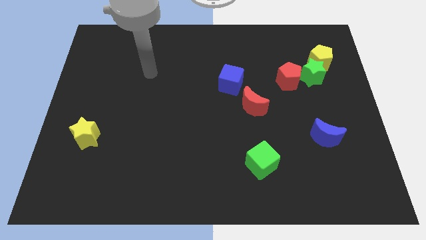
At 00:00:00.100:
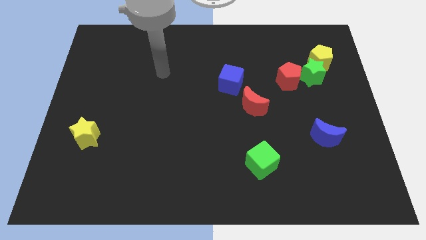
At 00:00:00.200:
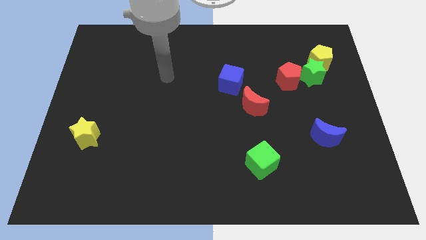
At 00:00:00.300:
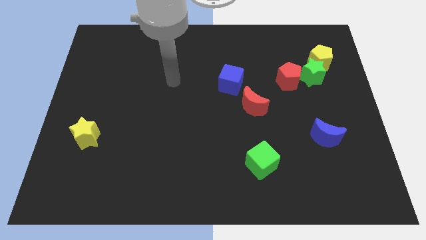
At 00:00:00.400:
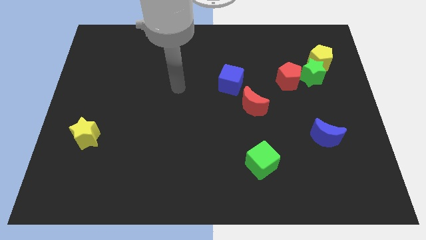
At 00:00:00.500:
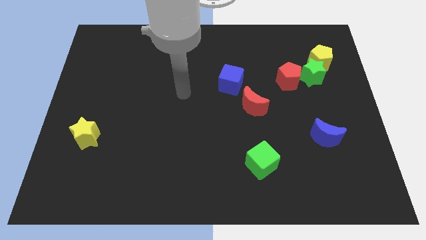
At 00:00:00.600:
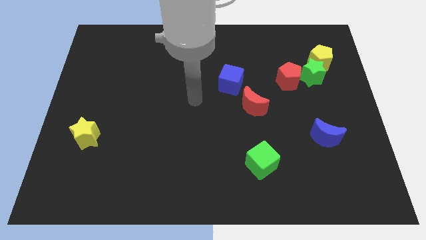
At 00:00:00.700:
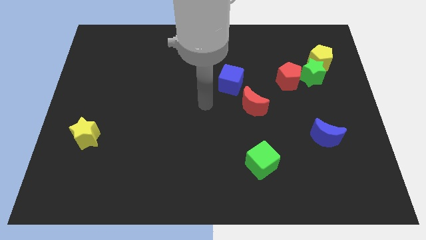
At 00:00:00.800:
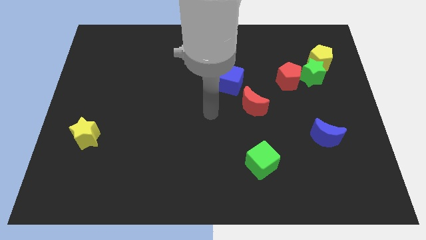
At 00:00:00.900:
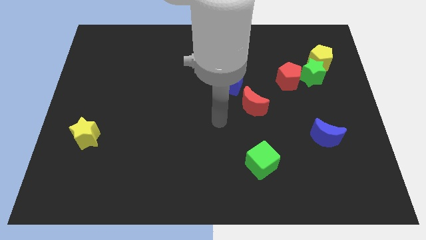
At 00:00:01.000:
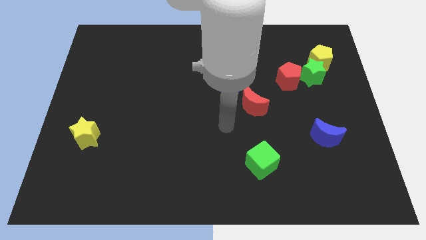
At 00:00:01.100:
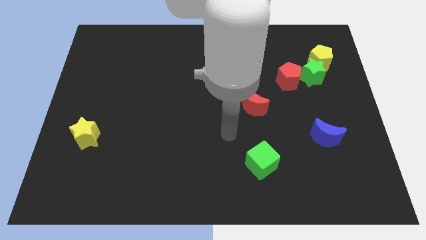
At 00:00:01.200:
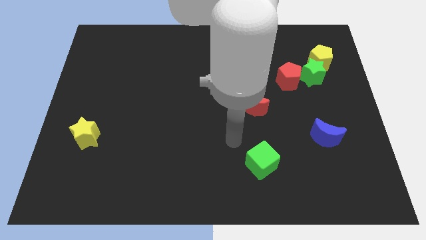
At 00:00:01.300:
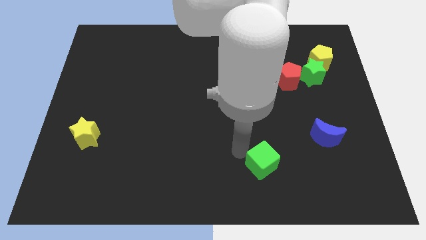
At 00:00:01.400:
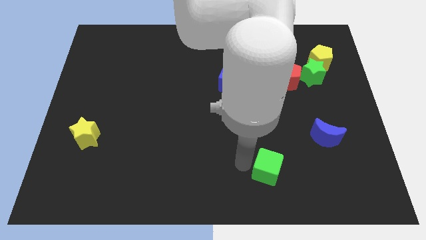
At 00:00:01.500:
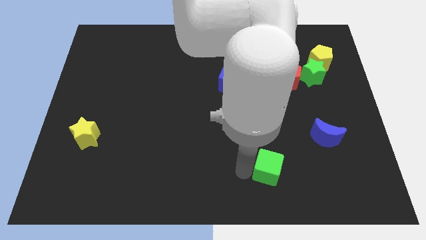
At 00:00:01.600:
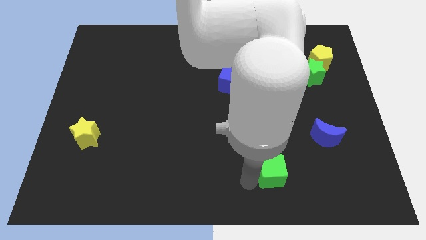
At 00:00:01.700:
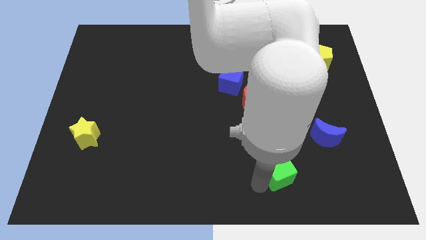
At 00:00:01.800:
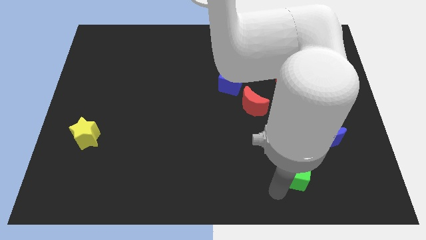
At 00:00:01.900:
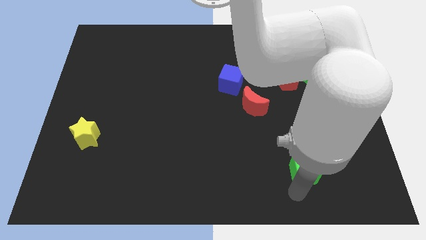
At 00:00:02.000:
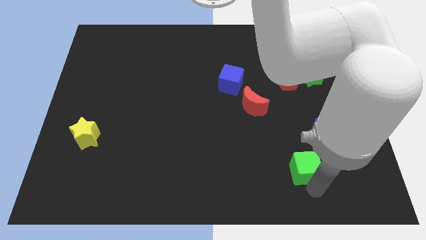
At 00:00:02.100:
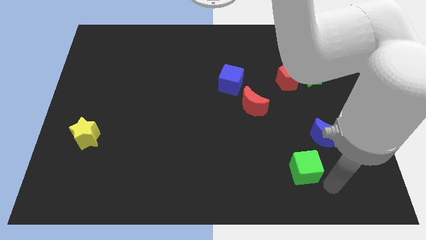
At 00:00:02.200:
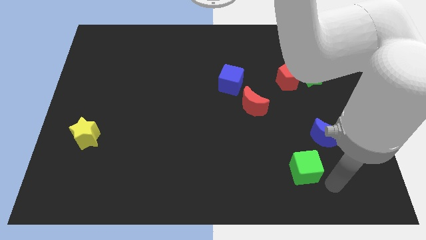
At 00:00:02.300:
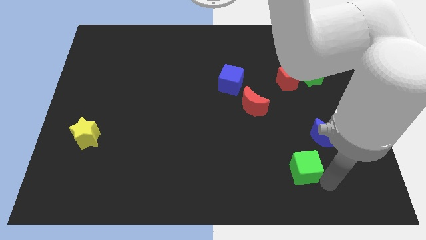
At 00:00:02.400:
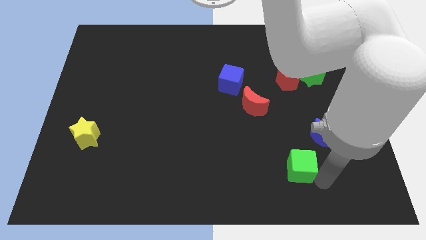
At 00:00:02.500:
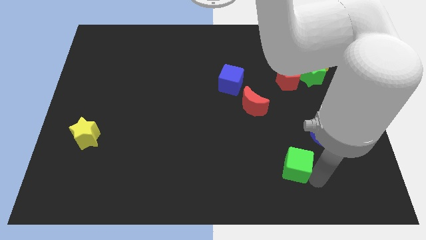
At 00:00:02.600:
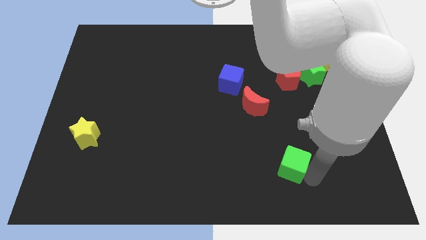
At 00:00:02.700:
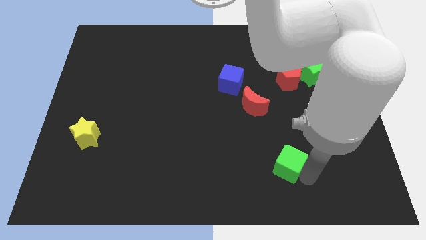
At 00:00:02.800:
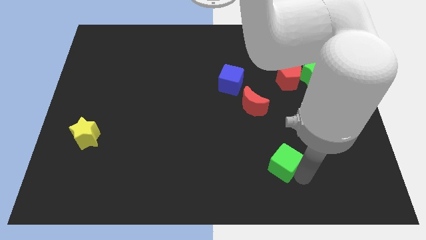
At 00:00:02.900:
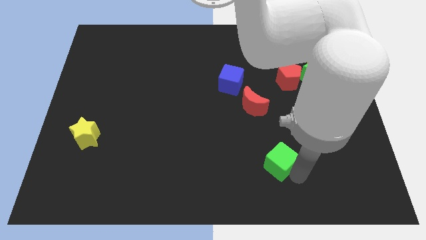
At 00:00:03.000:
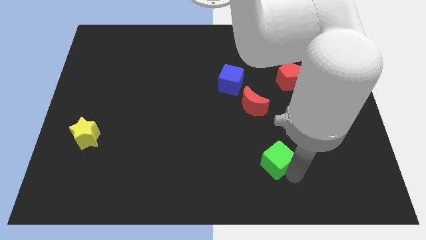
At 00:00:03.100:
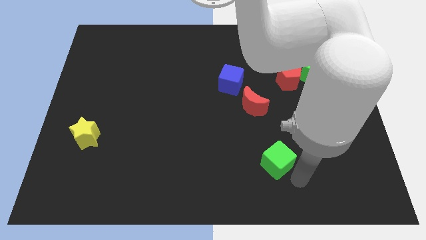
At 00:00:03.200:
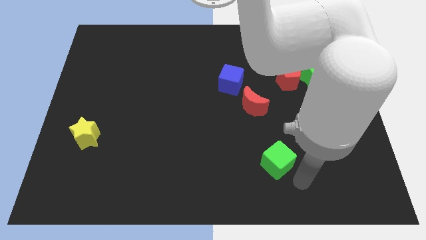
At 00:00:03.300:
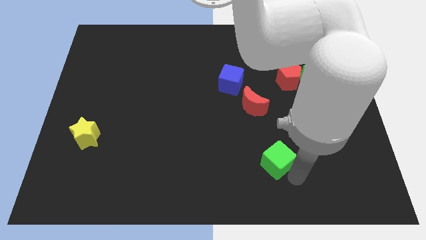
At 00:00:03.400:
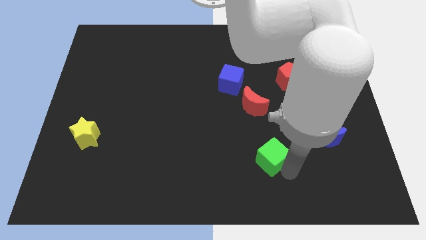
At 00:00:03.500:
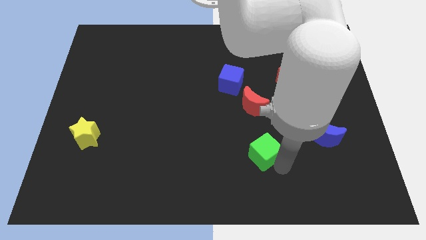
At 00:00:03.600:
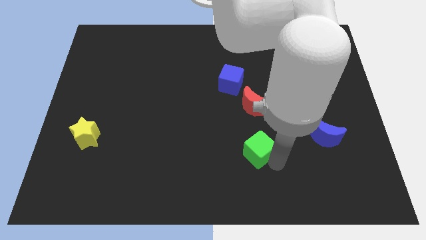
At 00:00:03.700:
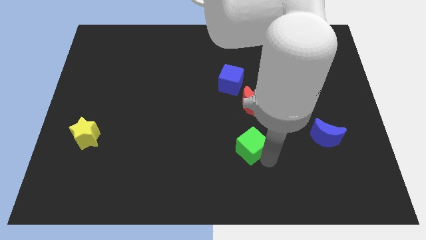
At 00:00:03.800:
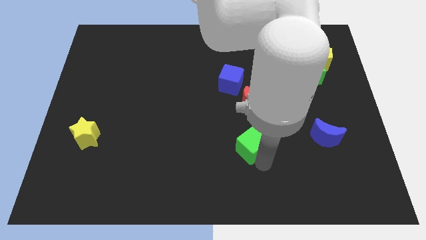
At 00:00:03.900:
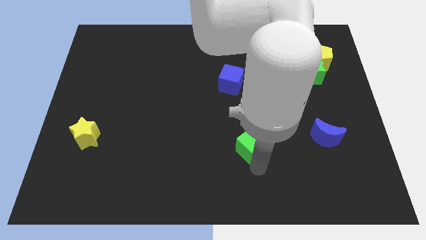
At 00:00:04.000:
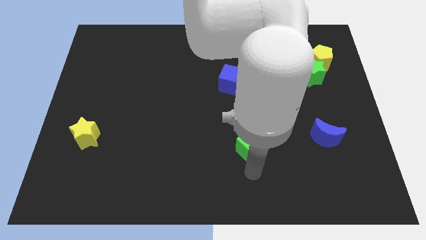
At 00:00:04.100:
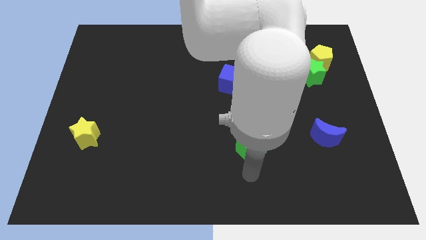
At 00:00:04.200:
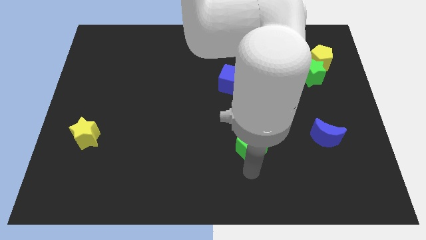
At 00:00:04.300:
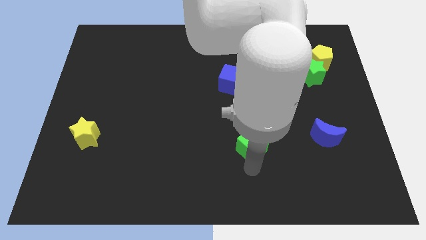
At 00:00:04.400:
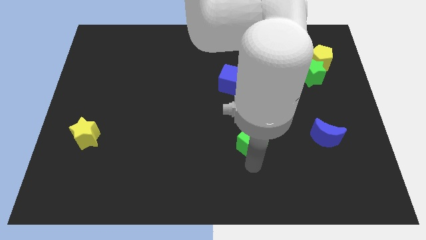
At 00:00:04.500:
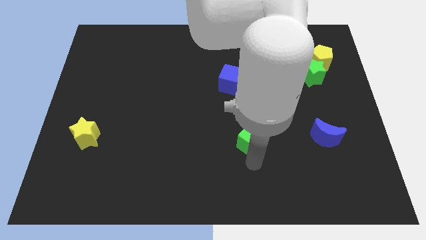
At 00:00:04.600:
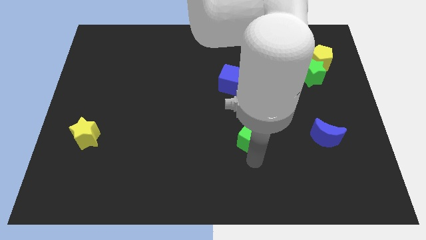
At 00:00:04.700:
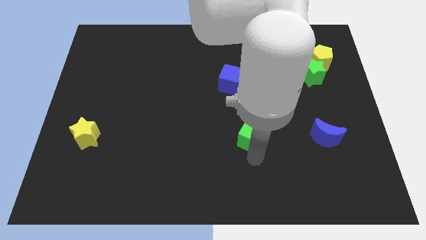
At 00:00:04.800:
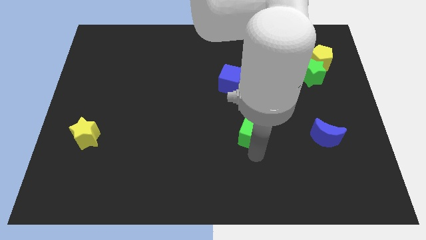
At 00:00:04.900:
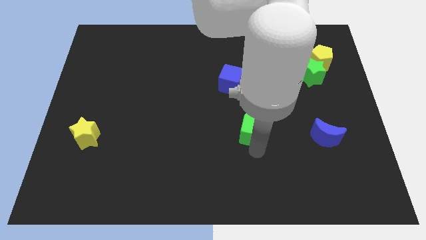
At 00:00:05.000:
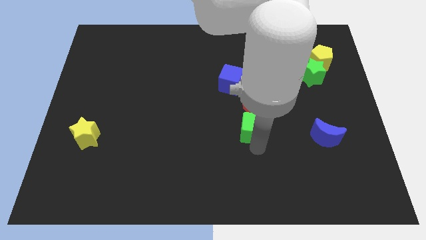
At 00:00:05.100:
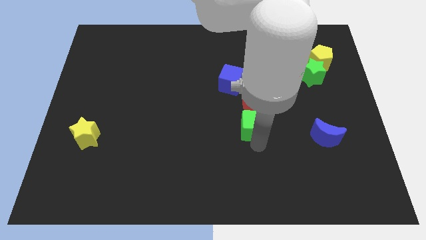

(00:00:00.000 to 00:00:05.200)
put the green cube next to the red moon

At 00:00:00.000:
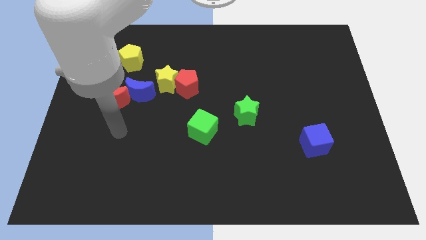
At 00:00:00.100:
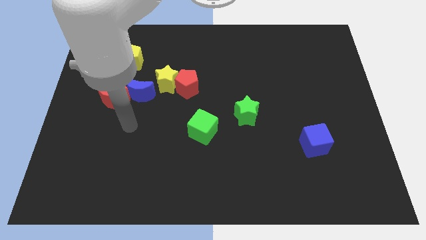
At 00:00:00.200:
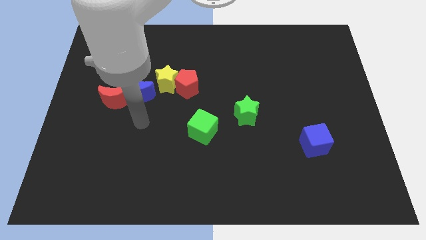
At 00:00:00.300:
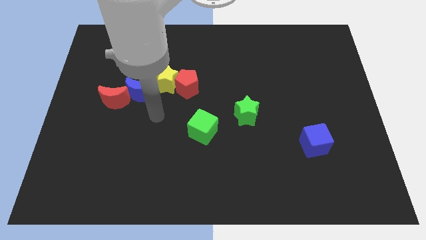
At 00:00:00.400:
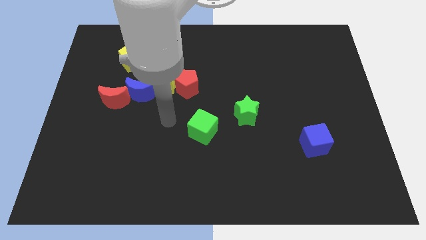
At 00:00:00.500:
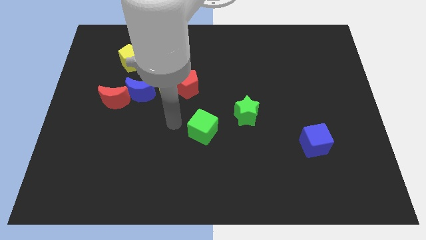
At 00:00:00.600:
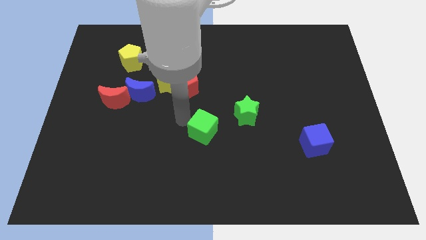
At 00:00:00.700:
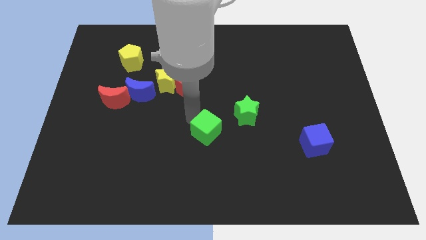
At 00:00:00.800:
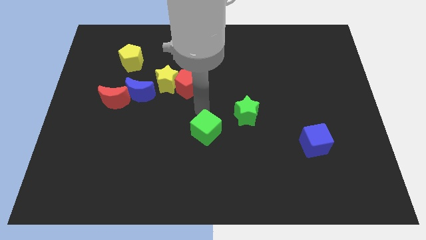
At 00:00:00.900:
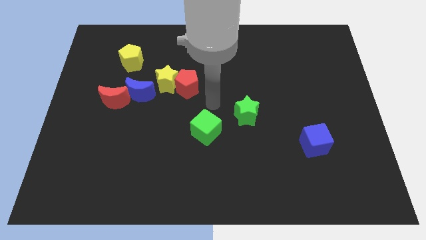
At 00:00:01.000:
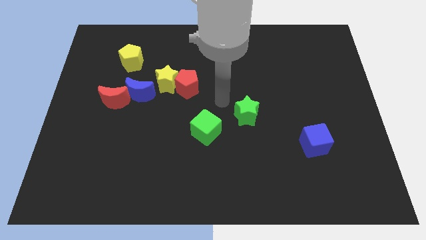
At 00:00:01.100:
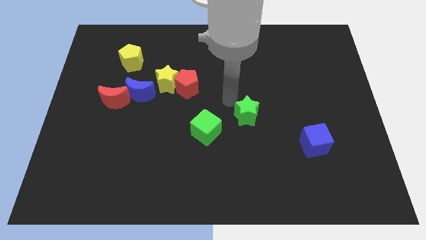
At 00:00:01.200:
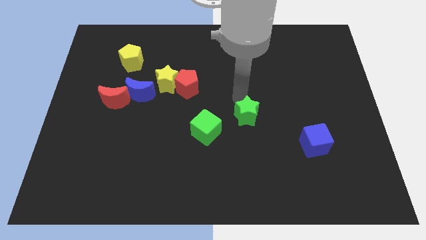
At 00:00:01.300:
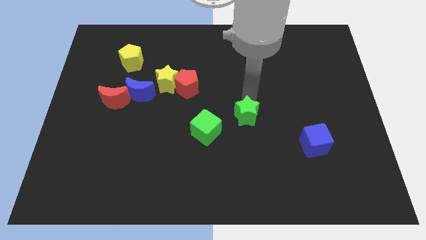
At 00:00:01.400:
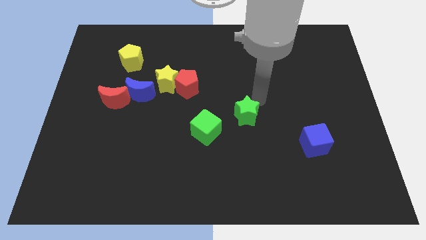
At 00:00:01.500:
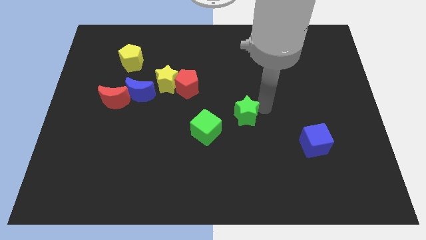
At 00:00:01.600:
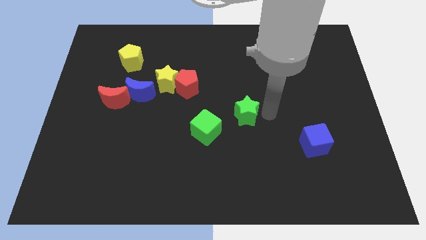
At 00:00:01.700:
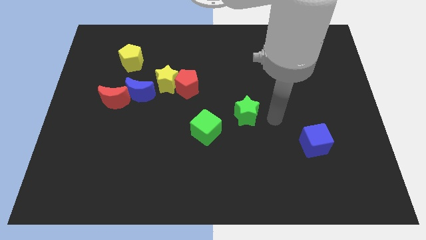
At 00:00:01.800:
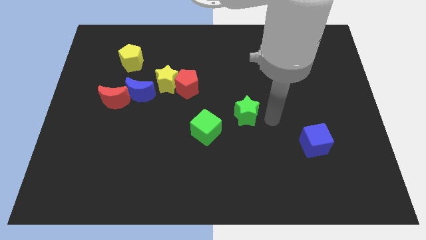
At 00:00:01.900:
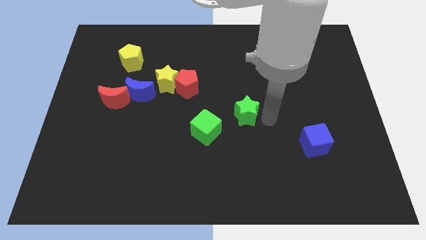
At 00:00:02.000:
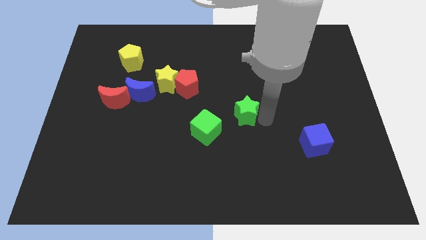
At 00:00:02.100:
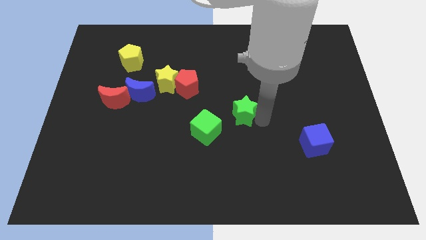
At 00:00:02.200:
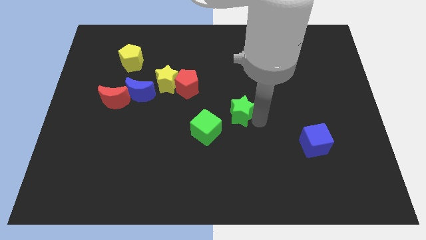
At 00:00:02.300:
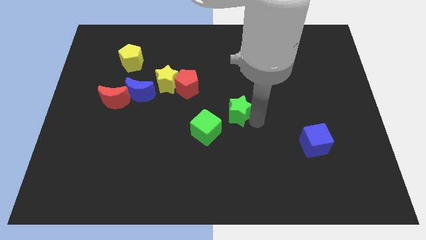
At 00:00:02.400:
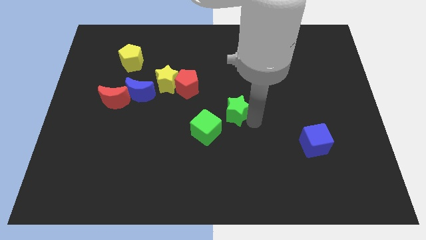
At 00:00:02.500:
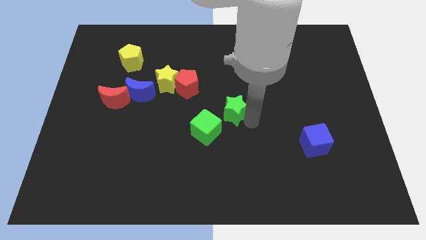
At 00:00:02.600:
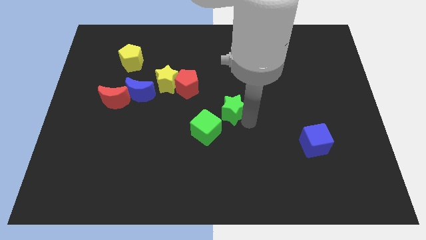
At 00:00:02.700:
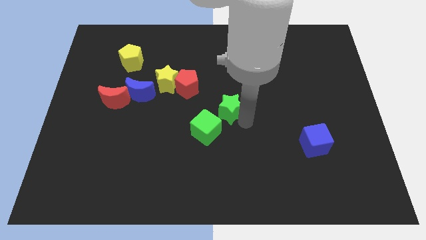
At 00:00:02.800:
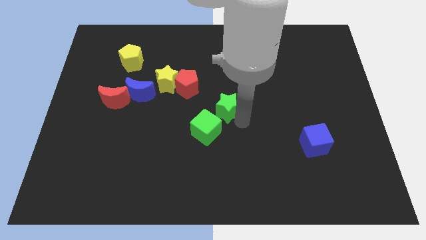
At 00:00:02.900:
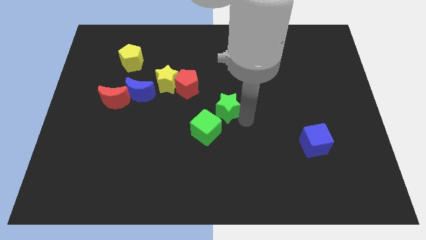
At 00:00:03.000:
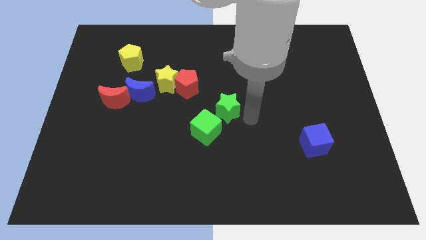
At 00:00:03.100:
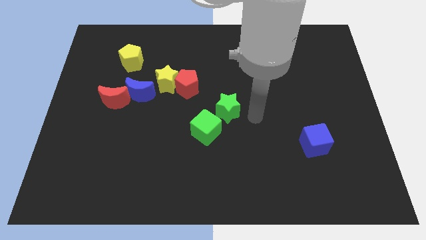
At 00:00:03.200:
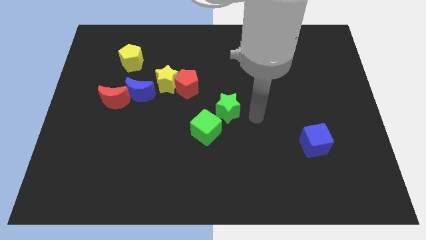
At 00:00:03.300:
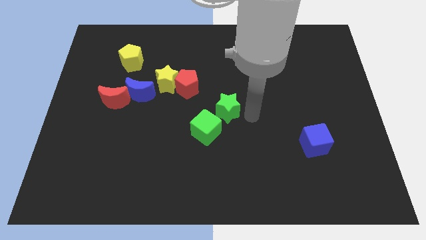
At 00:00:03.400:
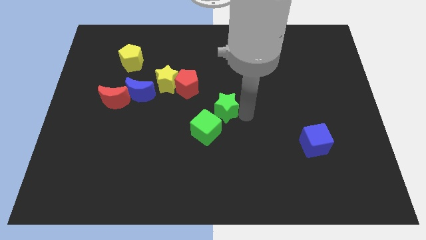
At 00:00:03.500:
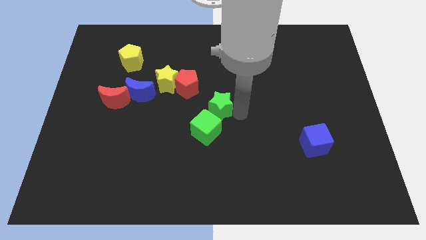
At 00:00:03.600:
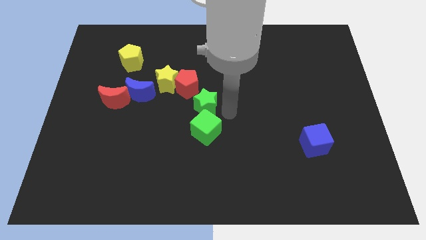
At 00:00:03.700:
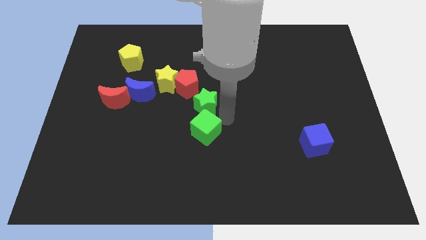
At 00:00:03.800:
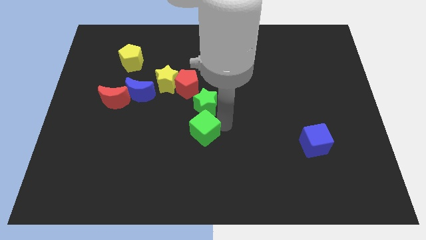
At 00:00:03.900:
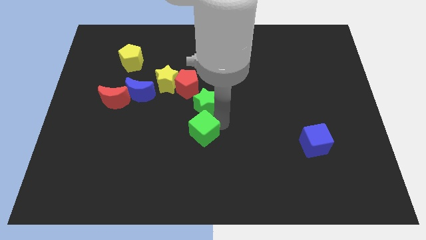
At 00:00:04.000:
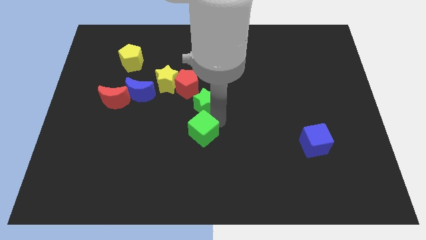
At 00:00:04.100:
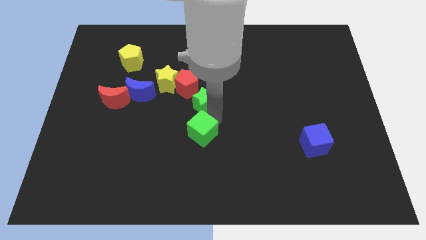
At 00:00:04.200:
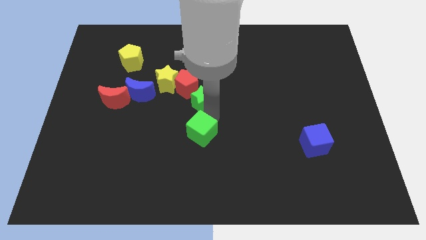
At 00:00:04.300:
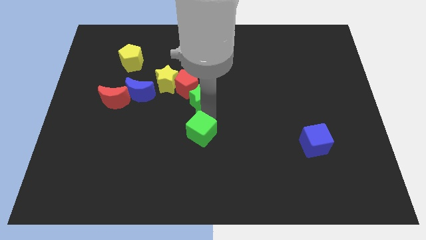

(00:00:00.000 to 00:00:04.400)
push the green star towards the red pentagon
